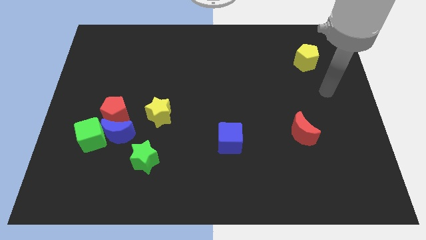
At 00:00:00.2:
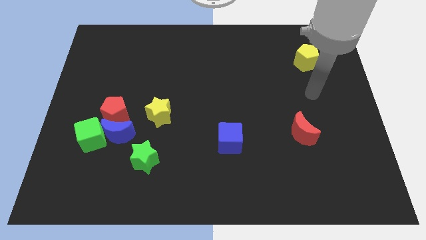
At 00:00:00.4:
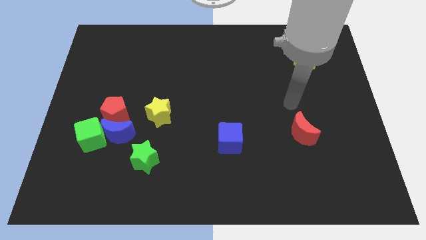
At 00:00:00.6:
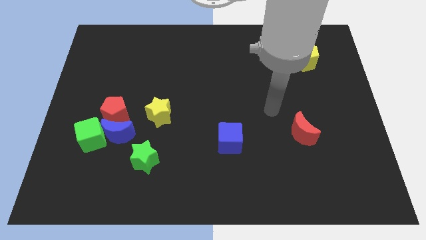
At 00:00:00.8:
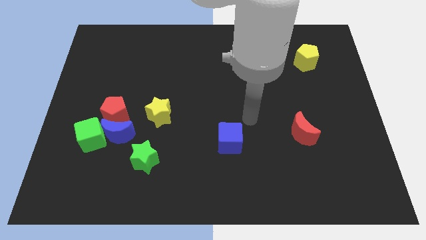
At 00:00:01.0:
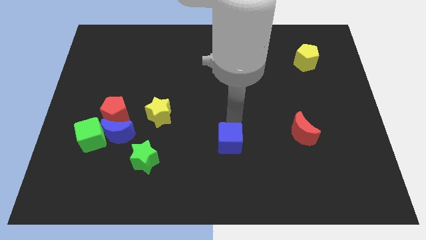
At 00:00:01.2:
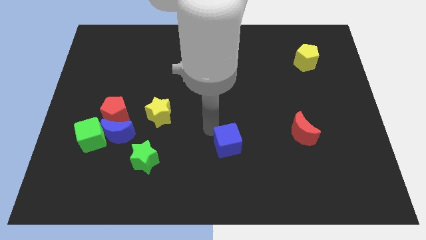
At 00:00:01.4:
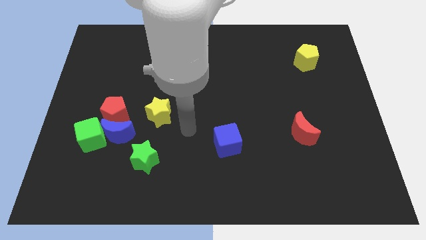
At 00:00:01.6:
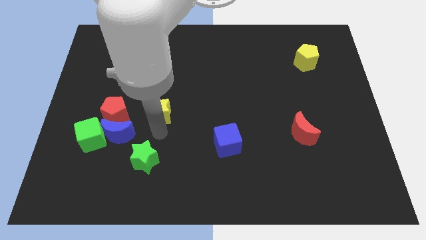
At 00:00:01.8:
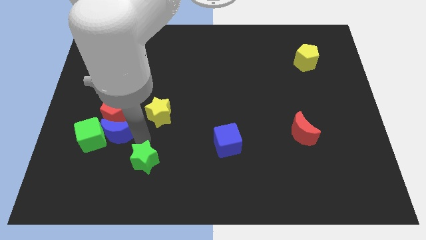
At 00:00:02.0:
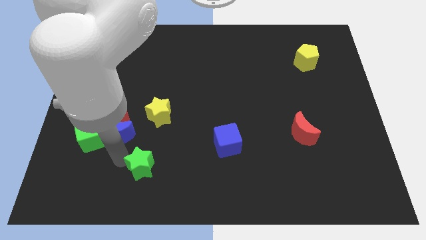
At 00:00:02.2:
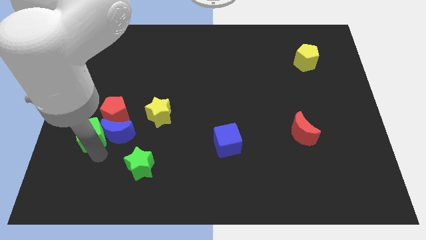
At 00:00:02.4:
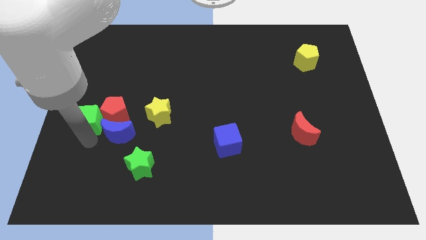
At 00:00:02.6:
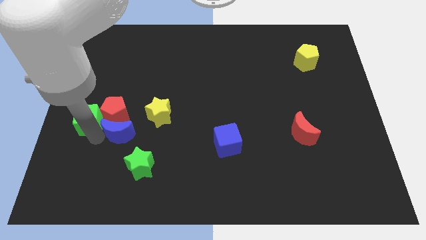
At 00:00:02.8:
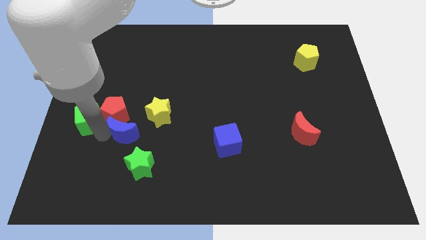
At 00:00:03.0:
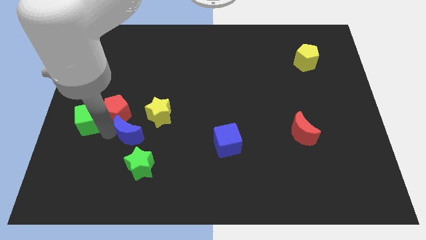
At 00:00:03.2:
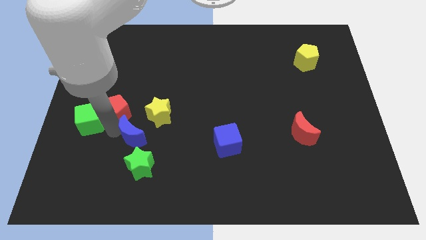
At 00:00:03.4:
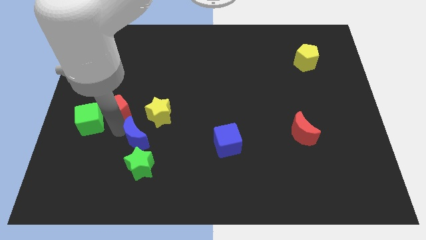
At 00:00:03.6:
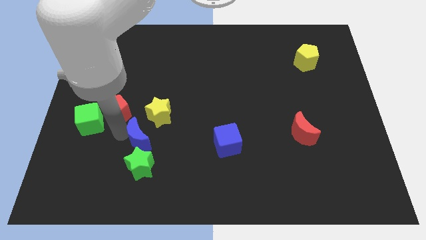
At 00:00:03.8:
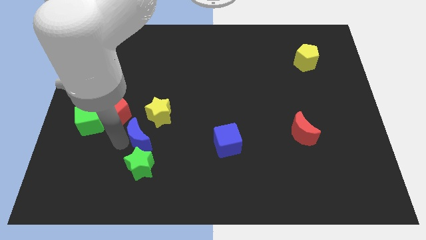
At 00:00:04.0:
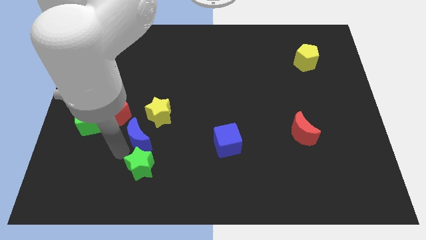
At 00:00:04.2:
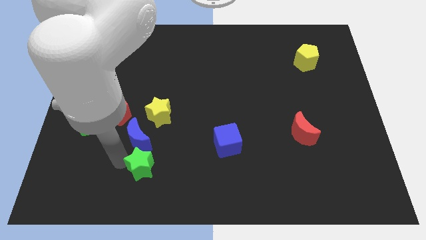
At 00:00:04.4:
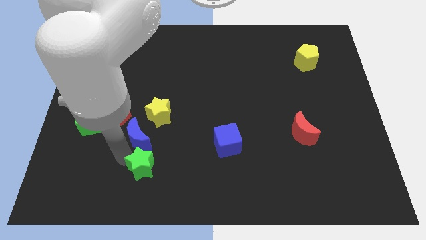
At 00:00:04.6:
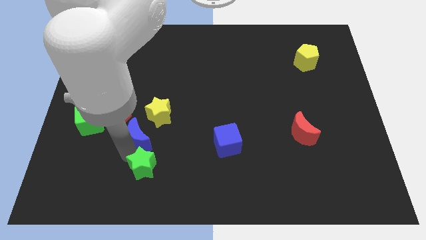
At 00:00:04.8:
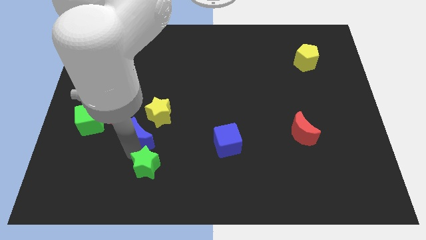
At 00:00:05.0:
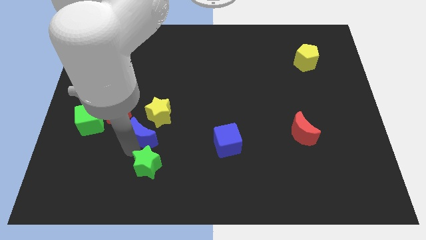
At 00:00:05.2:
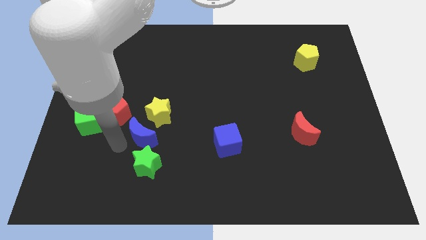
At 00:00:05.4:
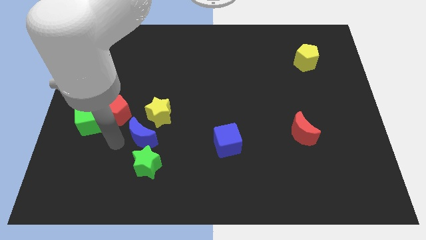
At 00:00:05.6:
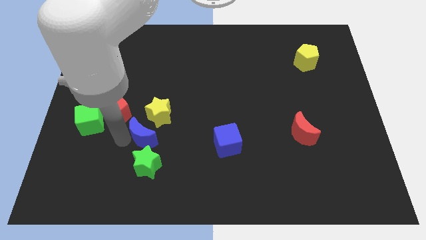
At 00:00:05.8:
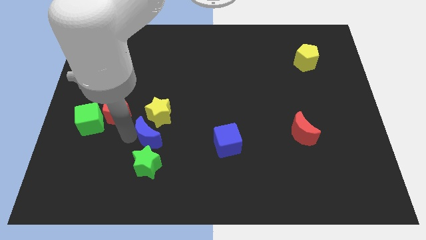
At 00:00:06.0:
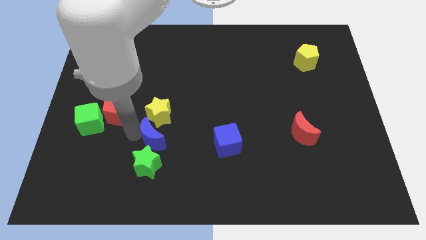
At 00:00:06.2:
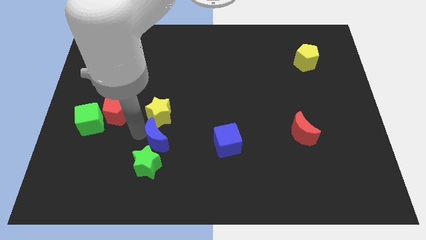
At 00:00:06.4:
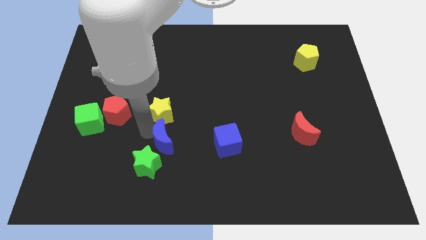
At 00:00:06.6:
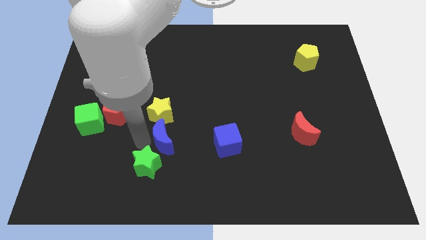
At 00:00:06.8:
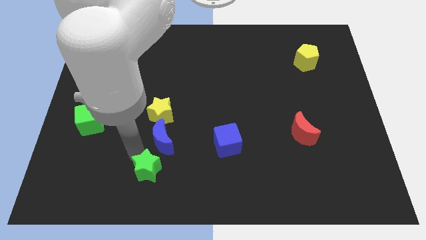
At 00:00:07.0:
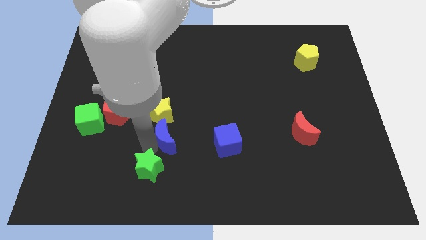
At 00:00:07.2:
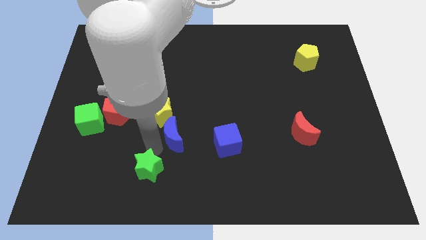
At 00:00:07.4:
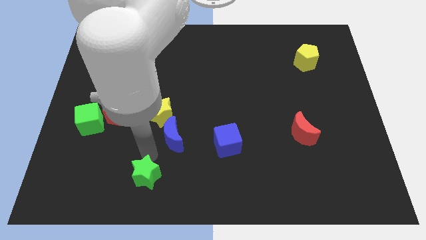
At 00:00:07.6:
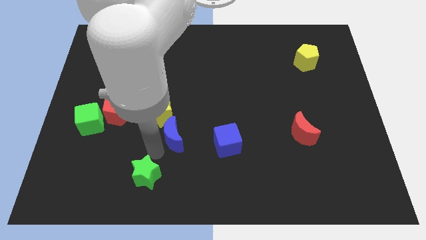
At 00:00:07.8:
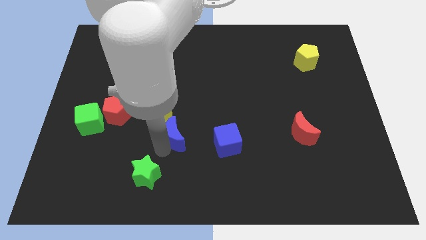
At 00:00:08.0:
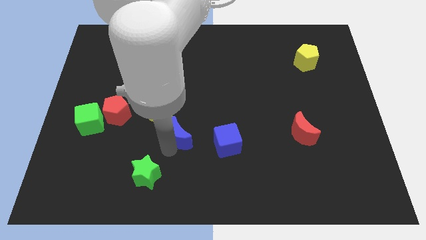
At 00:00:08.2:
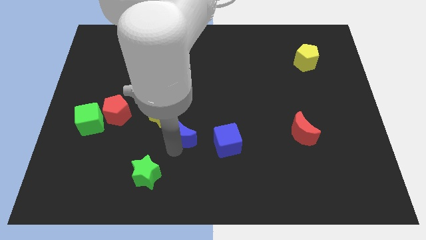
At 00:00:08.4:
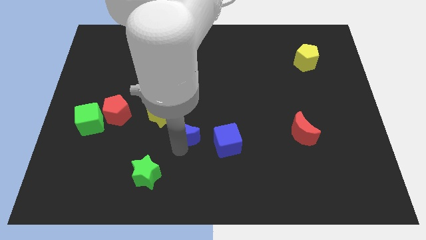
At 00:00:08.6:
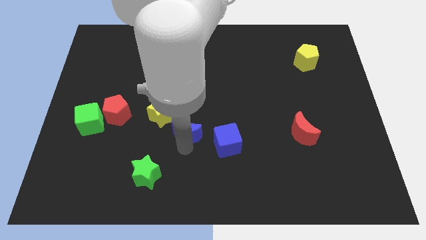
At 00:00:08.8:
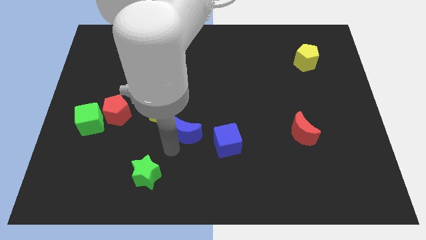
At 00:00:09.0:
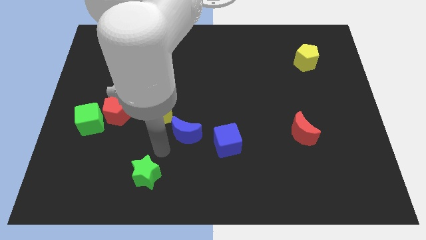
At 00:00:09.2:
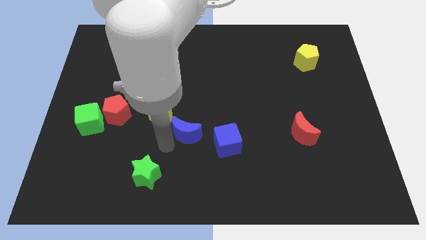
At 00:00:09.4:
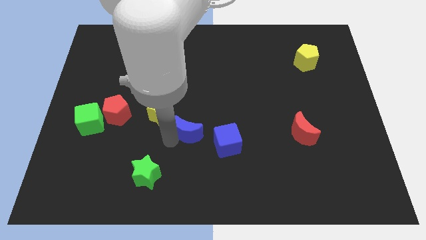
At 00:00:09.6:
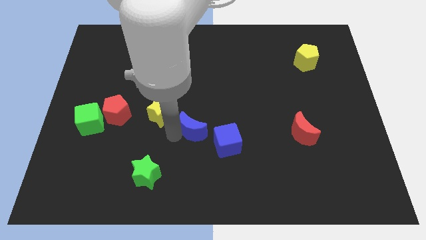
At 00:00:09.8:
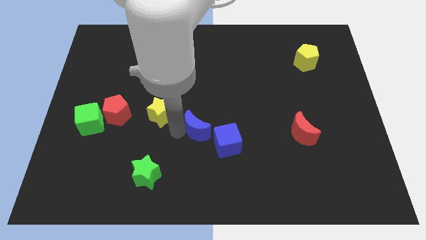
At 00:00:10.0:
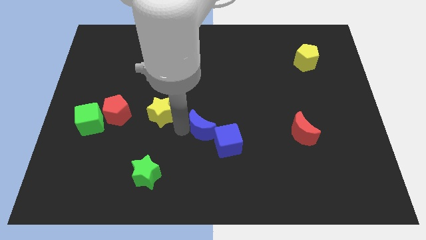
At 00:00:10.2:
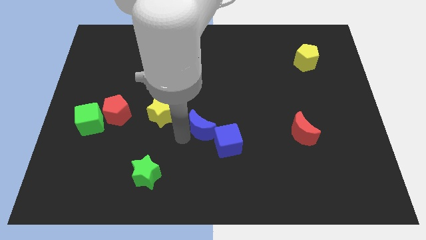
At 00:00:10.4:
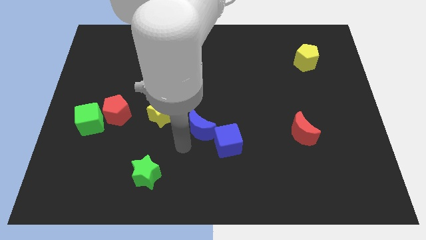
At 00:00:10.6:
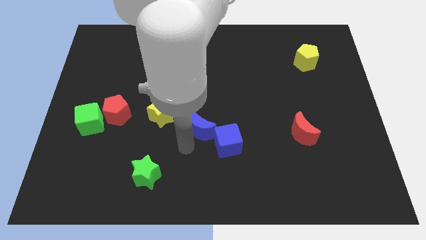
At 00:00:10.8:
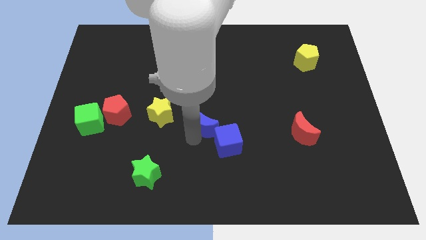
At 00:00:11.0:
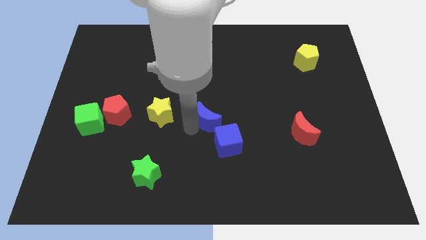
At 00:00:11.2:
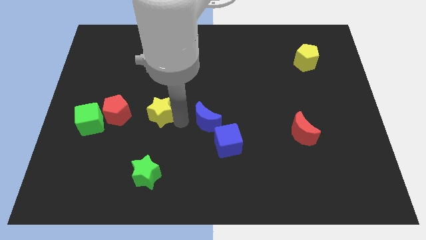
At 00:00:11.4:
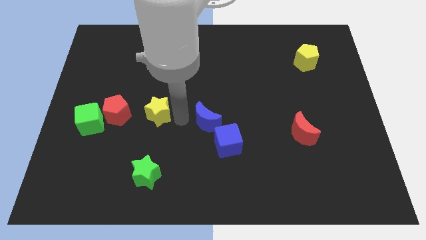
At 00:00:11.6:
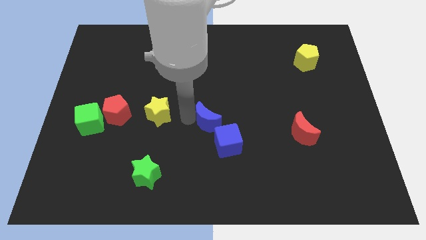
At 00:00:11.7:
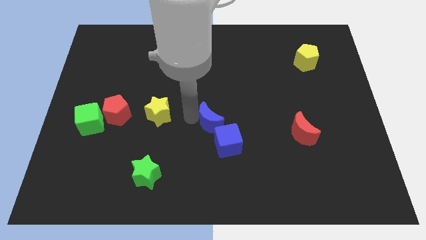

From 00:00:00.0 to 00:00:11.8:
move the blue moon right

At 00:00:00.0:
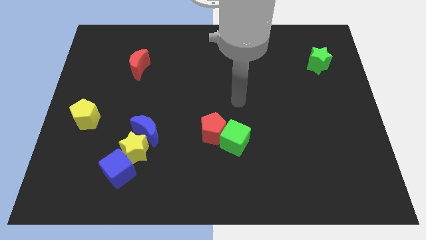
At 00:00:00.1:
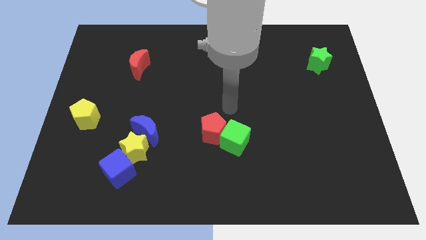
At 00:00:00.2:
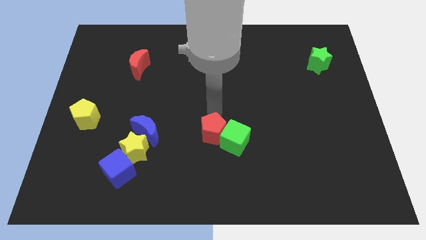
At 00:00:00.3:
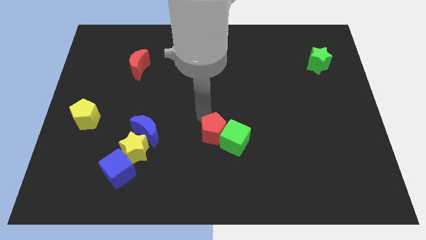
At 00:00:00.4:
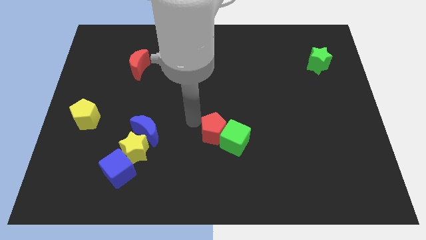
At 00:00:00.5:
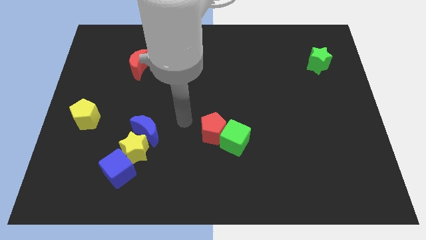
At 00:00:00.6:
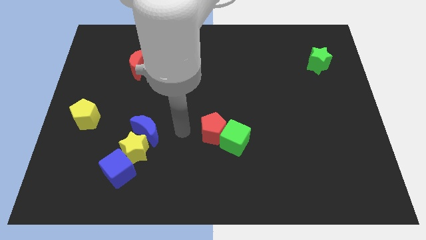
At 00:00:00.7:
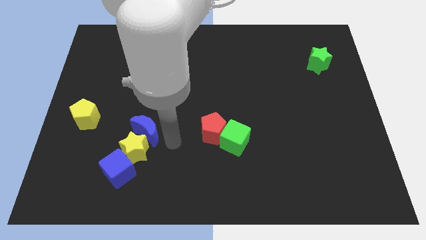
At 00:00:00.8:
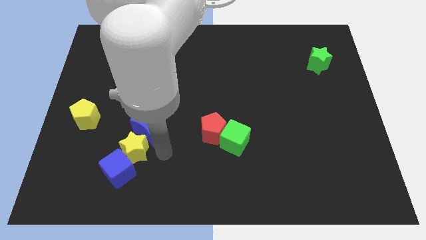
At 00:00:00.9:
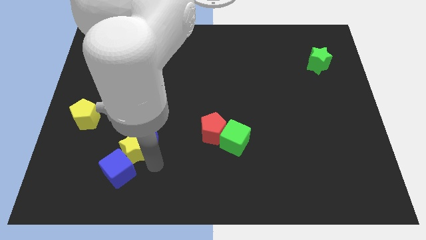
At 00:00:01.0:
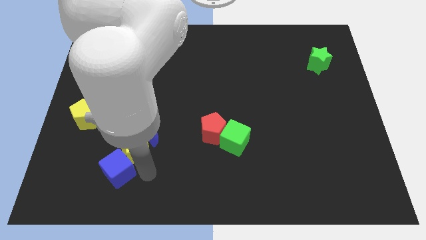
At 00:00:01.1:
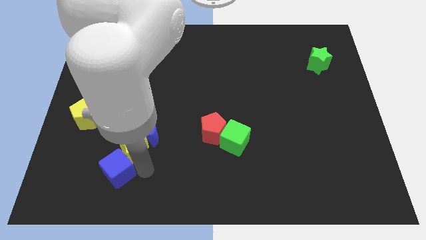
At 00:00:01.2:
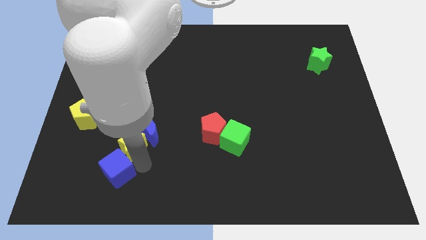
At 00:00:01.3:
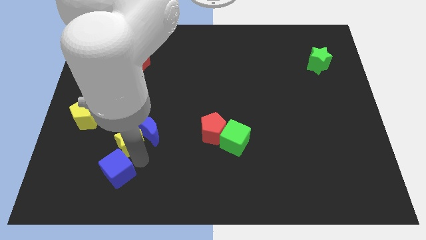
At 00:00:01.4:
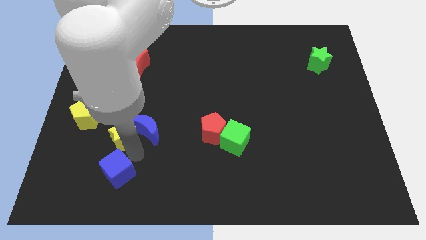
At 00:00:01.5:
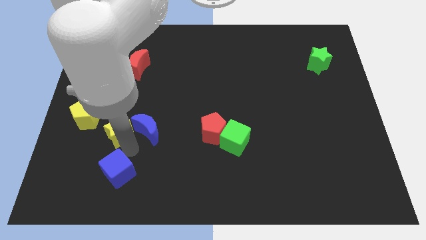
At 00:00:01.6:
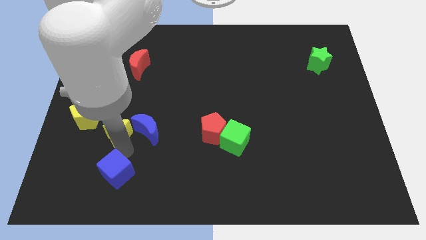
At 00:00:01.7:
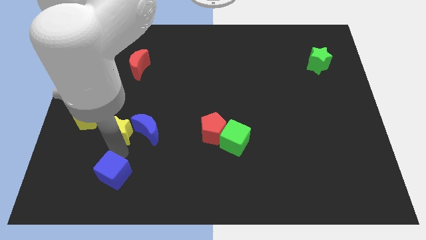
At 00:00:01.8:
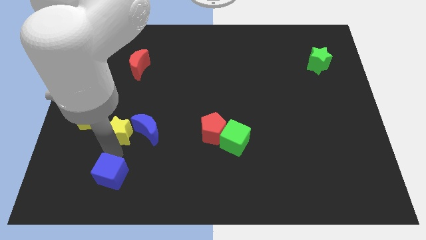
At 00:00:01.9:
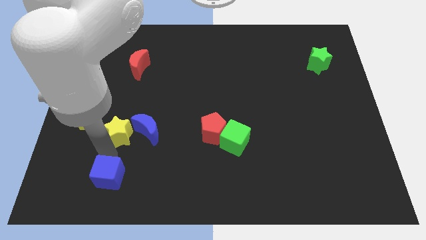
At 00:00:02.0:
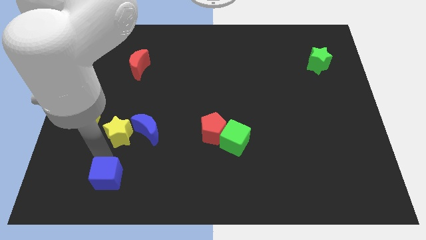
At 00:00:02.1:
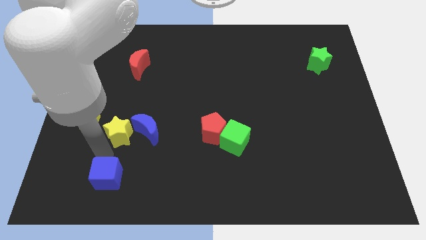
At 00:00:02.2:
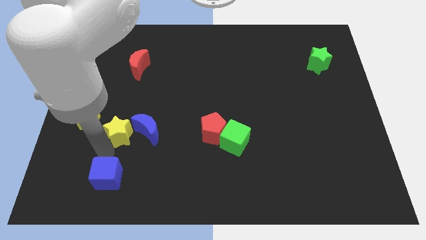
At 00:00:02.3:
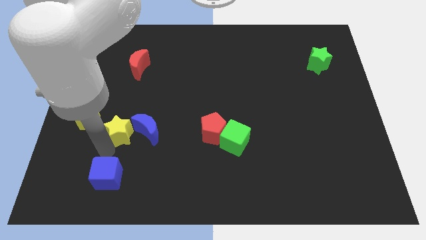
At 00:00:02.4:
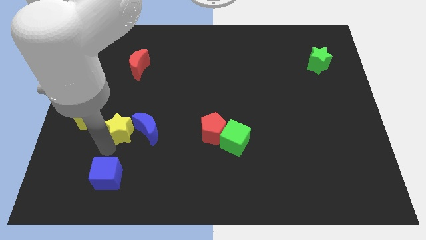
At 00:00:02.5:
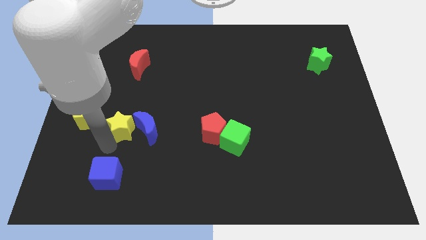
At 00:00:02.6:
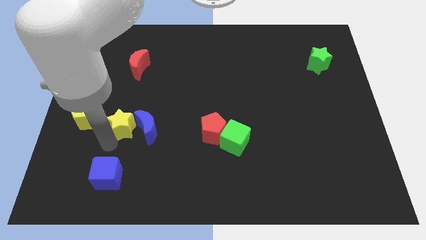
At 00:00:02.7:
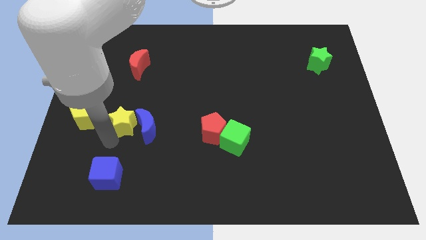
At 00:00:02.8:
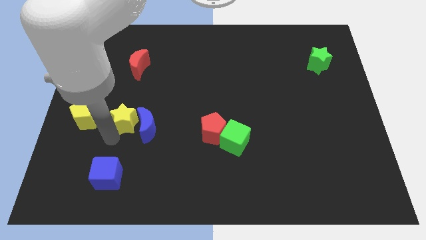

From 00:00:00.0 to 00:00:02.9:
slightly slide the yellow star up
